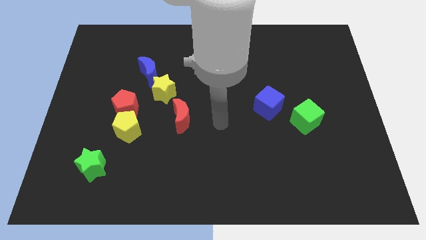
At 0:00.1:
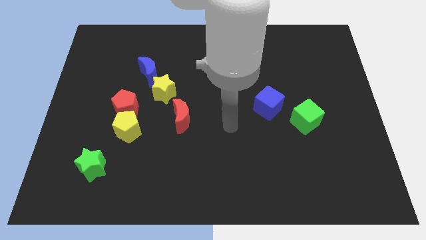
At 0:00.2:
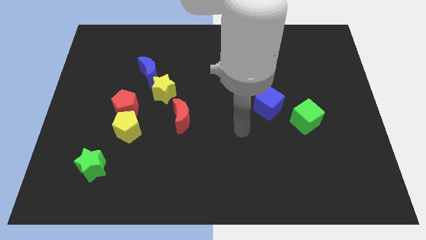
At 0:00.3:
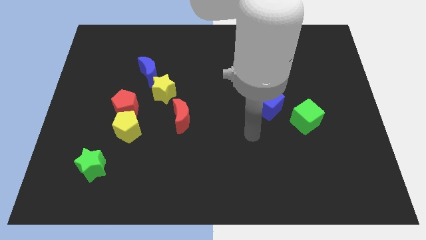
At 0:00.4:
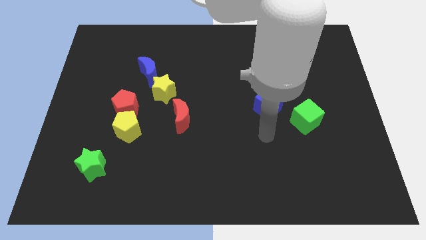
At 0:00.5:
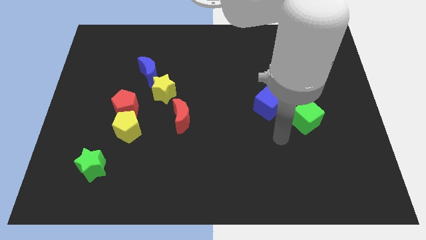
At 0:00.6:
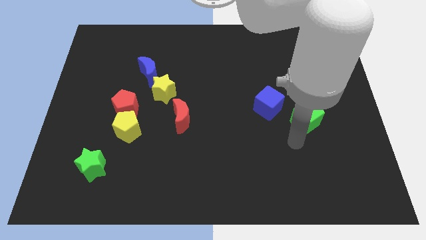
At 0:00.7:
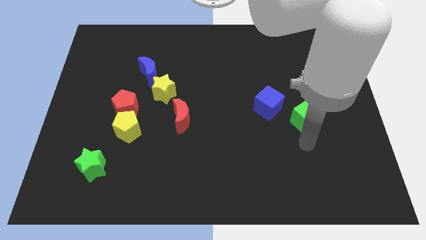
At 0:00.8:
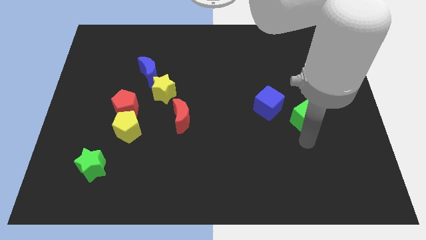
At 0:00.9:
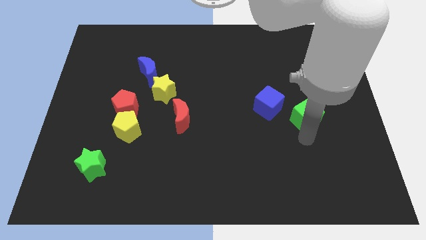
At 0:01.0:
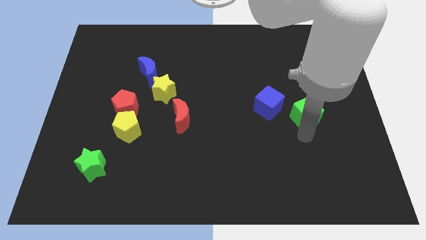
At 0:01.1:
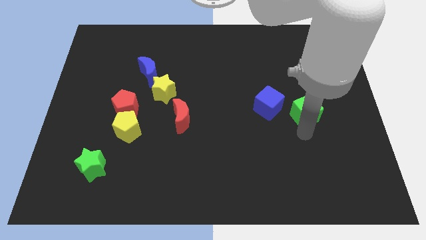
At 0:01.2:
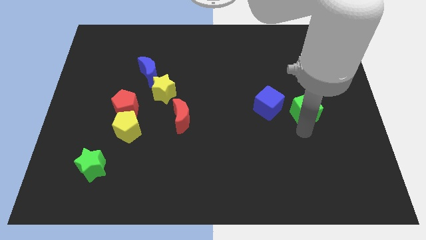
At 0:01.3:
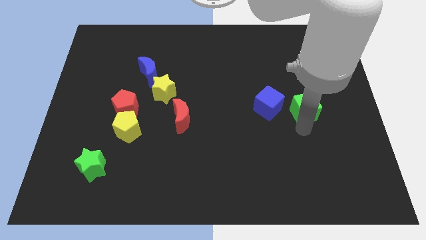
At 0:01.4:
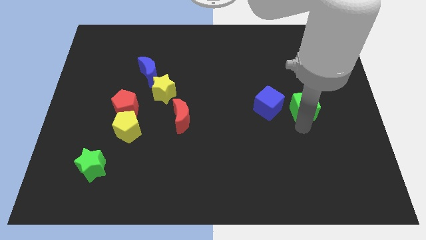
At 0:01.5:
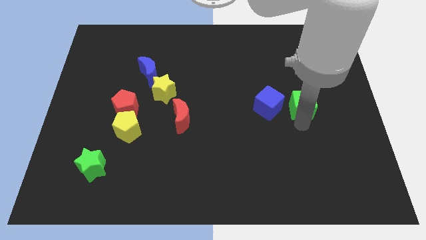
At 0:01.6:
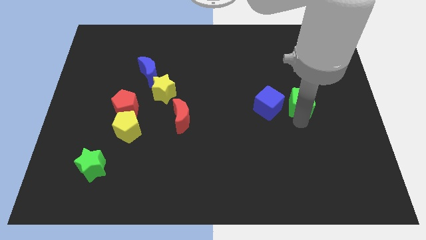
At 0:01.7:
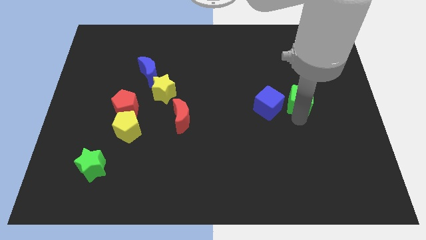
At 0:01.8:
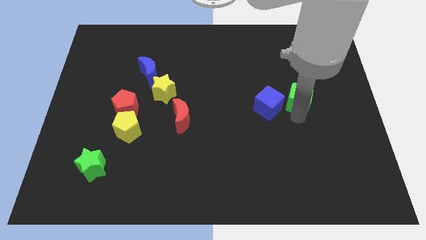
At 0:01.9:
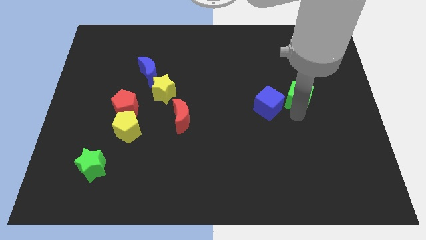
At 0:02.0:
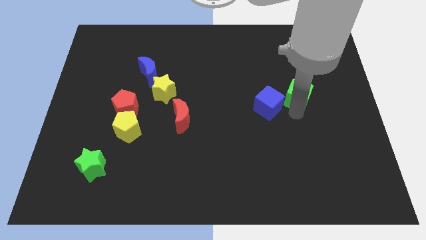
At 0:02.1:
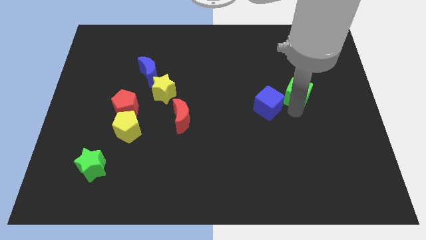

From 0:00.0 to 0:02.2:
move the green cube upwards somewhat

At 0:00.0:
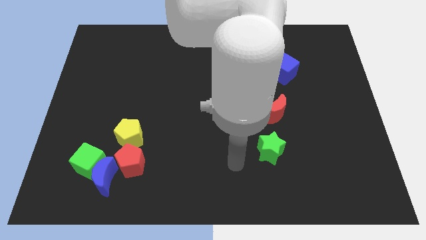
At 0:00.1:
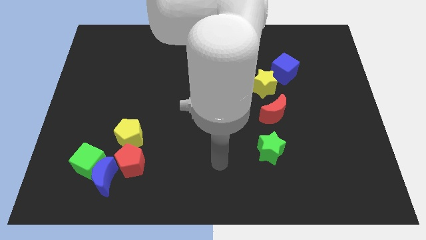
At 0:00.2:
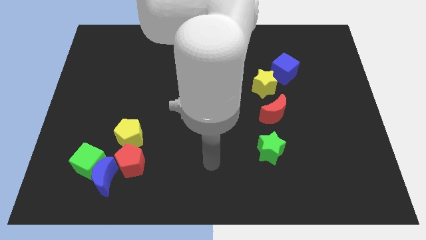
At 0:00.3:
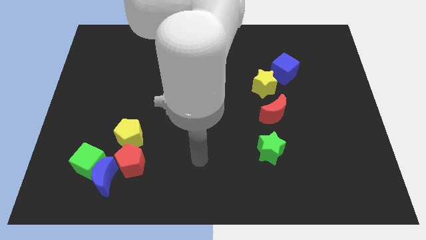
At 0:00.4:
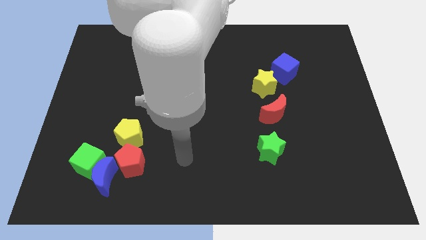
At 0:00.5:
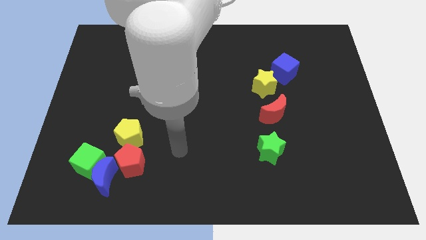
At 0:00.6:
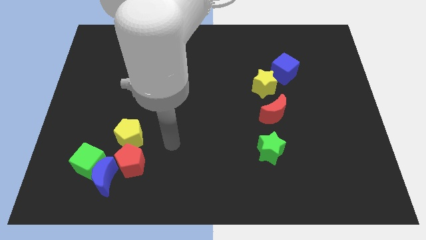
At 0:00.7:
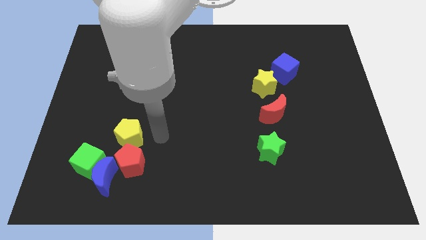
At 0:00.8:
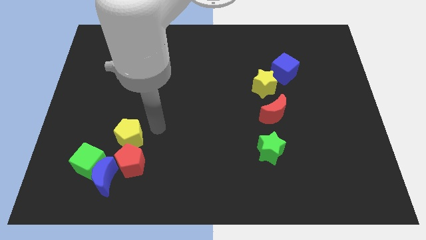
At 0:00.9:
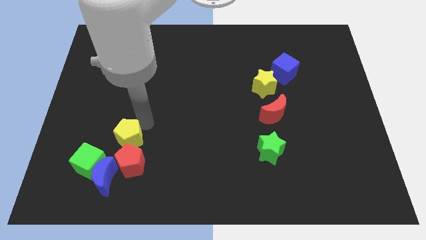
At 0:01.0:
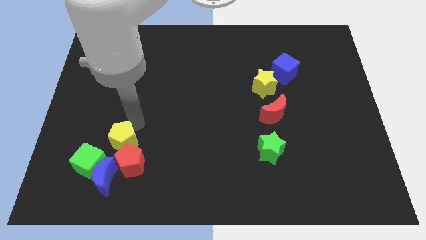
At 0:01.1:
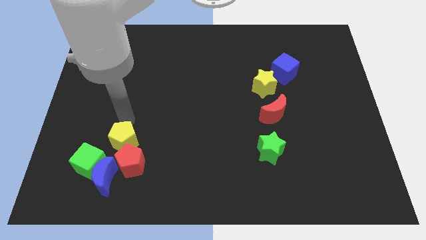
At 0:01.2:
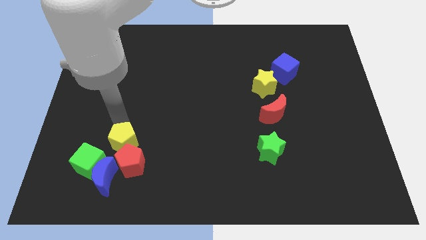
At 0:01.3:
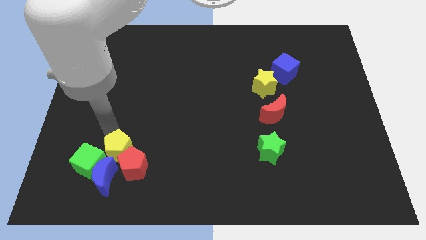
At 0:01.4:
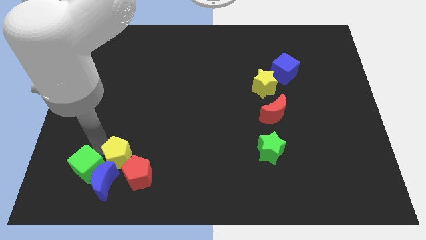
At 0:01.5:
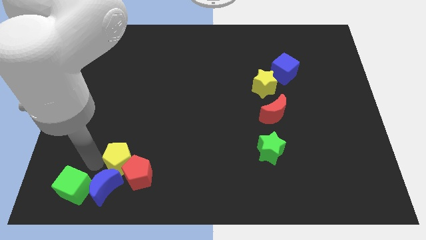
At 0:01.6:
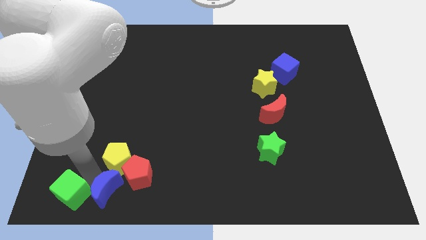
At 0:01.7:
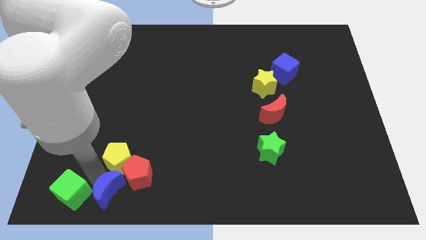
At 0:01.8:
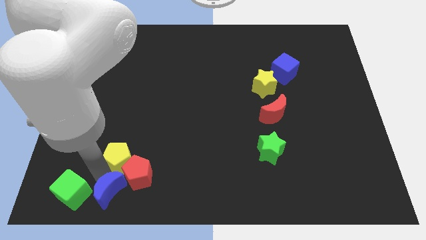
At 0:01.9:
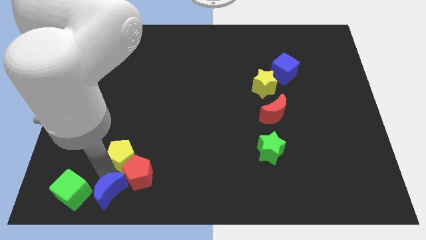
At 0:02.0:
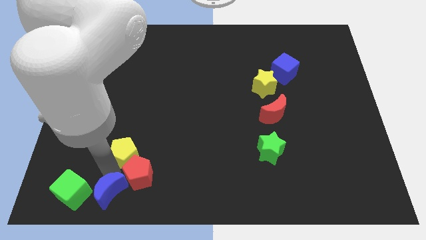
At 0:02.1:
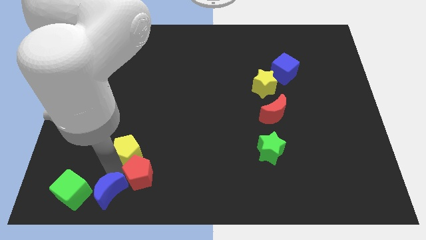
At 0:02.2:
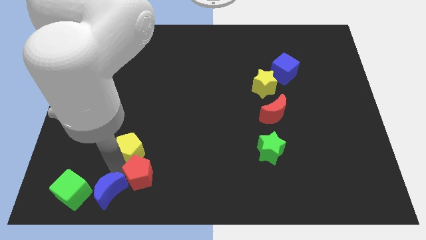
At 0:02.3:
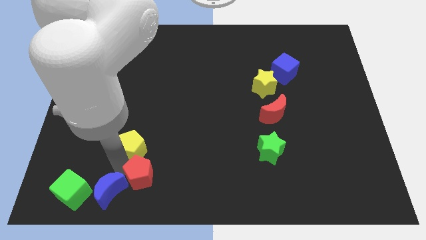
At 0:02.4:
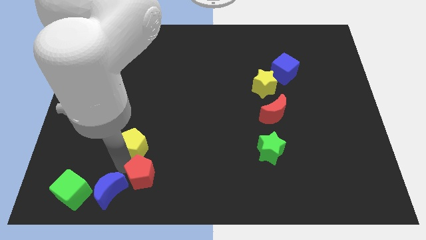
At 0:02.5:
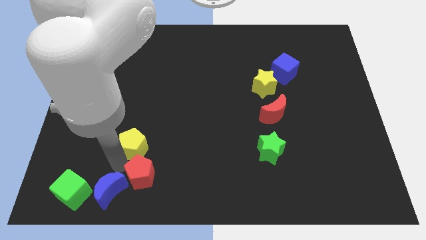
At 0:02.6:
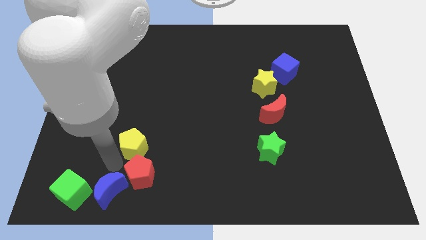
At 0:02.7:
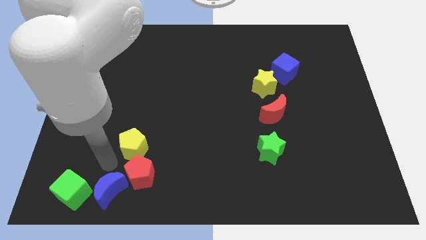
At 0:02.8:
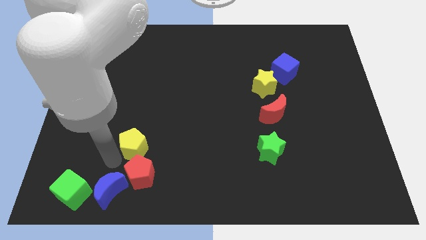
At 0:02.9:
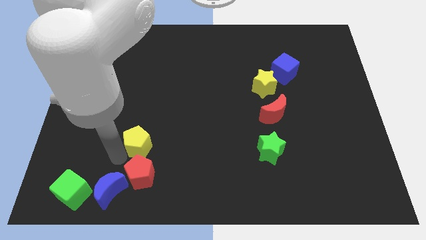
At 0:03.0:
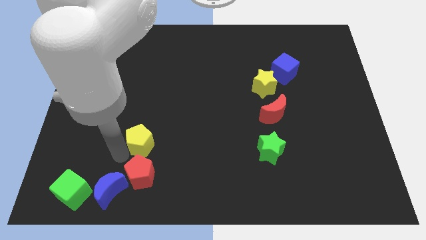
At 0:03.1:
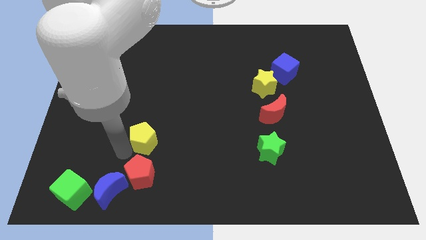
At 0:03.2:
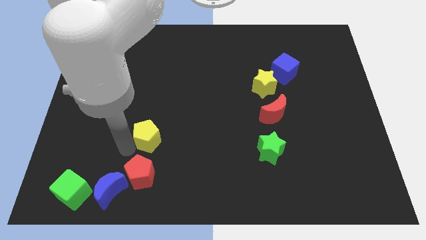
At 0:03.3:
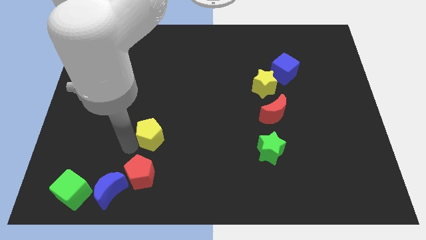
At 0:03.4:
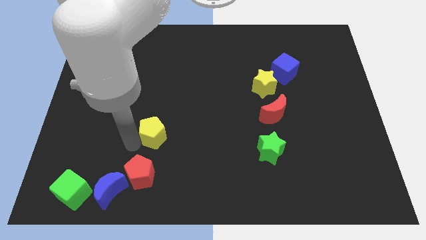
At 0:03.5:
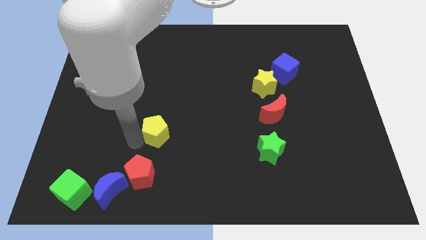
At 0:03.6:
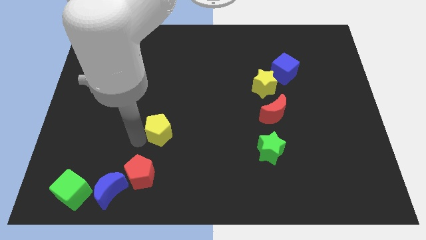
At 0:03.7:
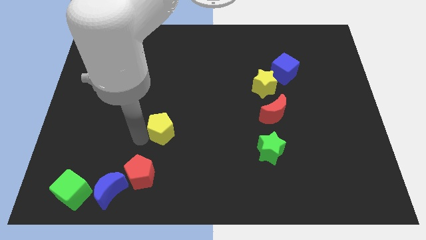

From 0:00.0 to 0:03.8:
slide the yellow pentagon slightly right

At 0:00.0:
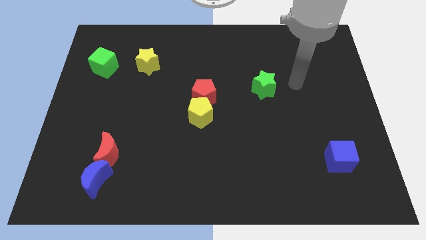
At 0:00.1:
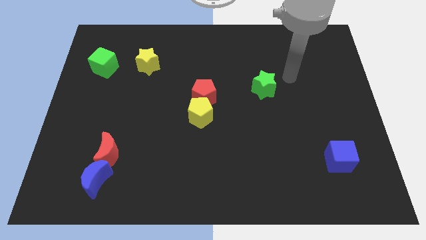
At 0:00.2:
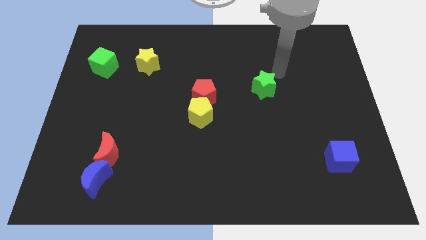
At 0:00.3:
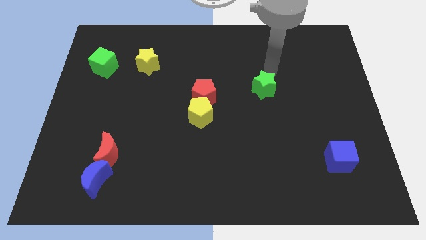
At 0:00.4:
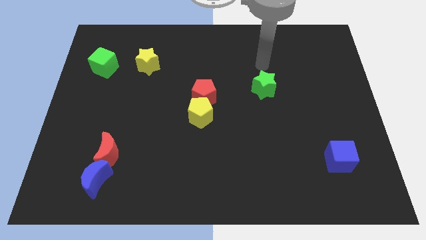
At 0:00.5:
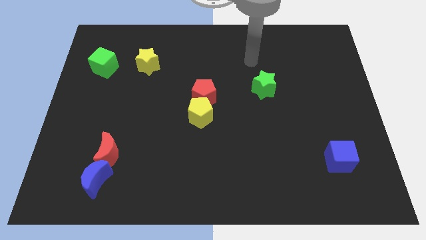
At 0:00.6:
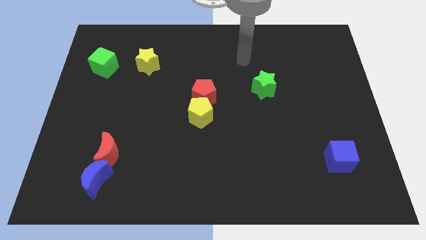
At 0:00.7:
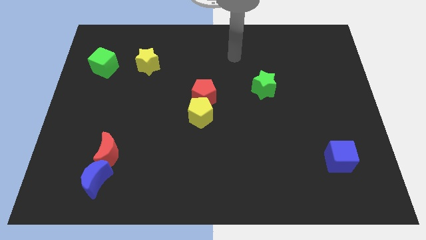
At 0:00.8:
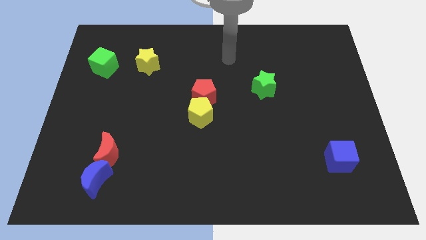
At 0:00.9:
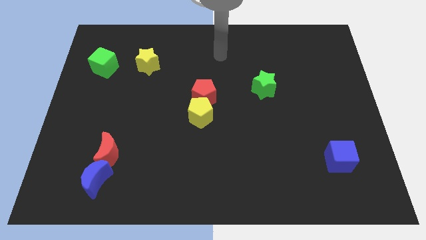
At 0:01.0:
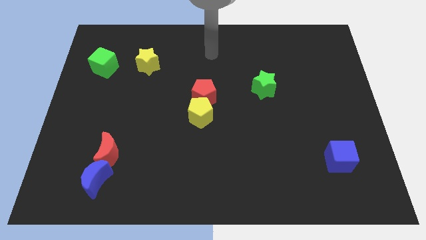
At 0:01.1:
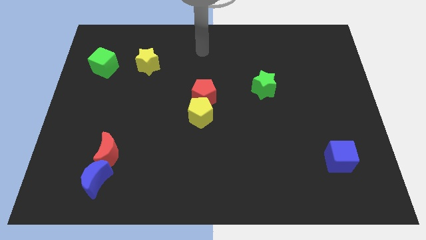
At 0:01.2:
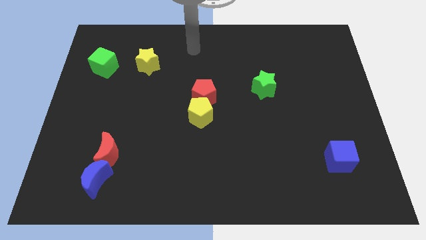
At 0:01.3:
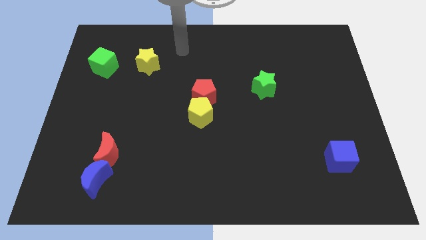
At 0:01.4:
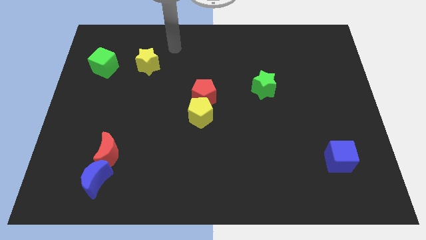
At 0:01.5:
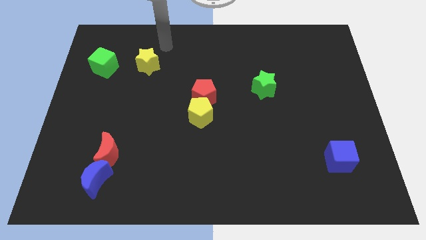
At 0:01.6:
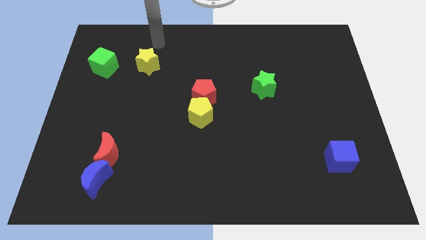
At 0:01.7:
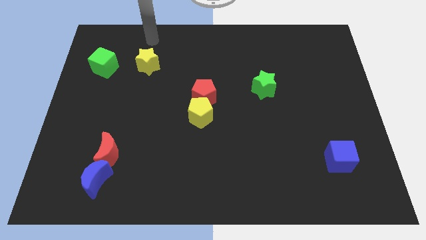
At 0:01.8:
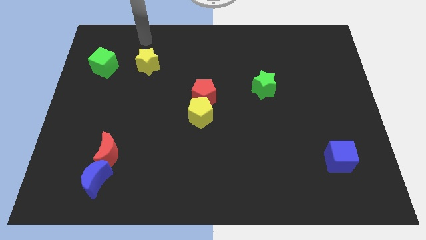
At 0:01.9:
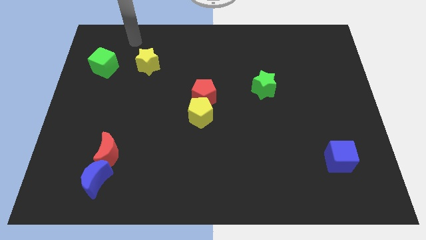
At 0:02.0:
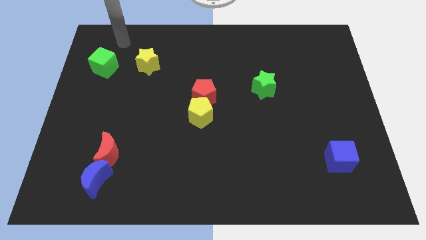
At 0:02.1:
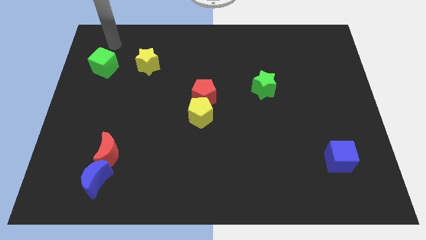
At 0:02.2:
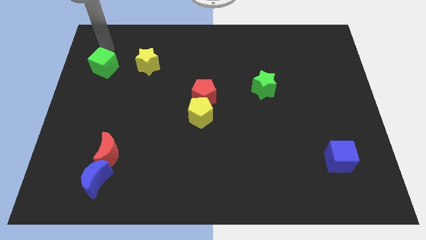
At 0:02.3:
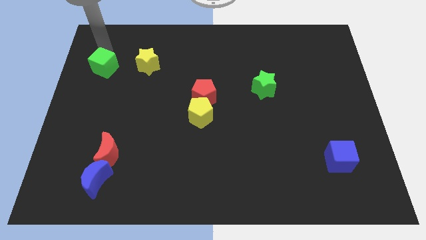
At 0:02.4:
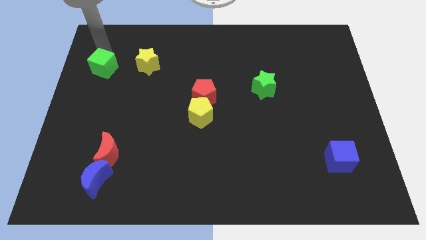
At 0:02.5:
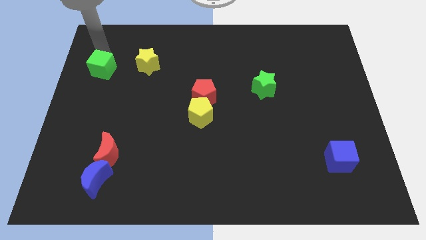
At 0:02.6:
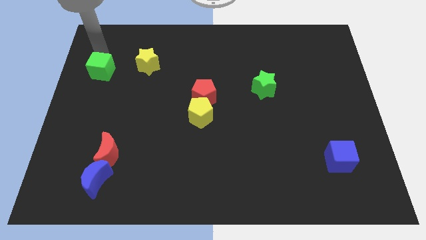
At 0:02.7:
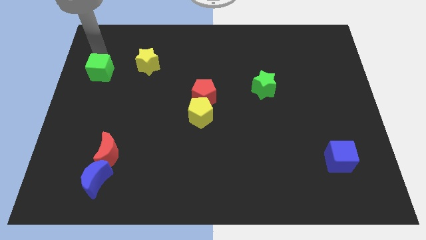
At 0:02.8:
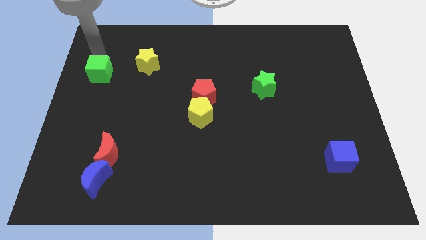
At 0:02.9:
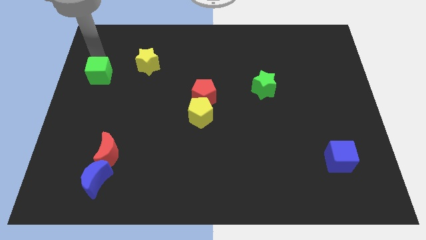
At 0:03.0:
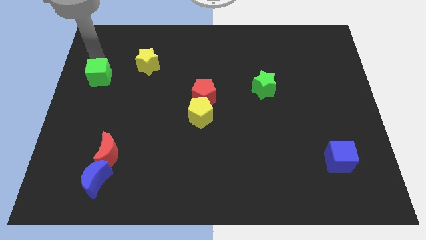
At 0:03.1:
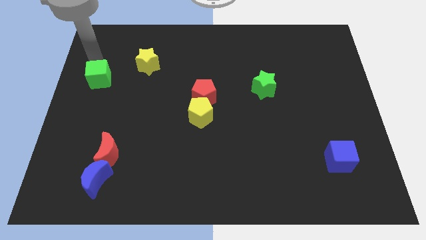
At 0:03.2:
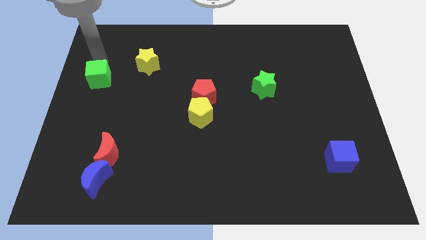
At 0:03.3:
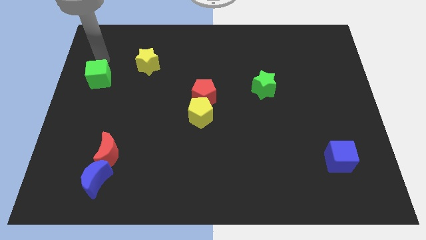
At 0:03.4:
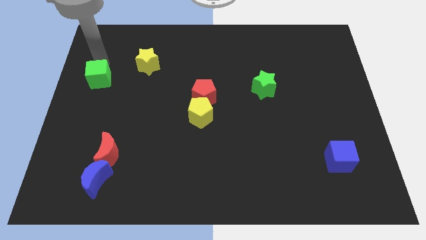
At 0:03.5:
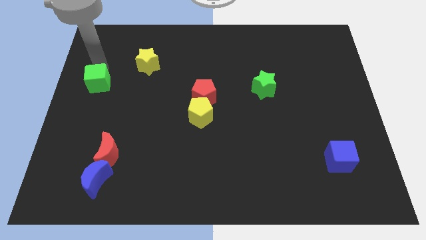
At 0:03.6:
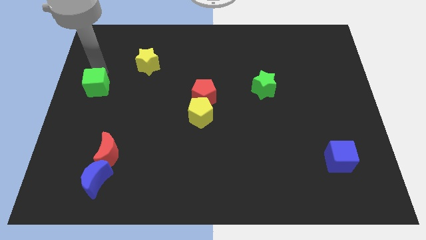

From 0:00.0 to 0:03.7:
slightly push the green cube down
